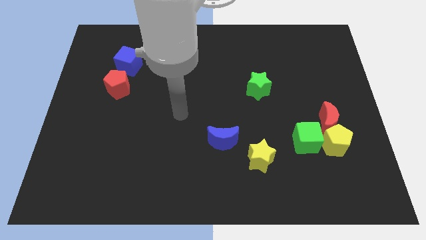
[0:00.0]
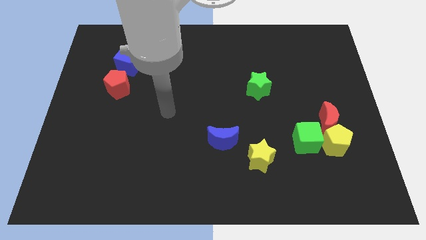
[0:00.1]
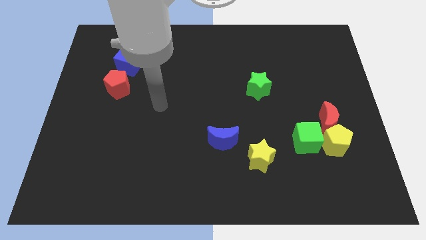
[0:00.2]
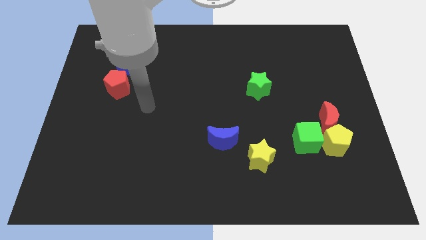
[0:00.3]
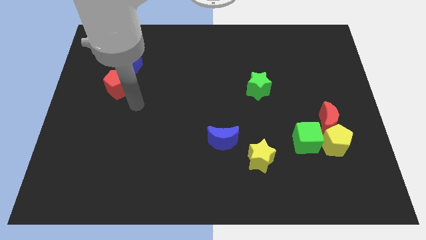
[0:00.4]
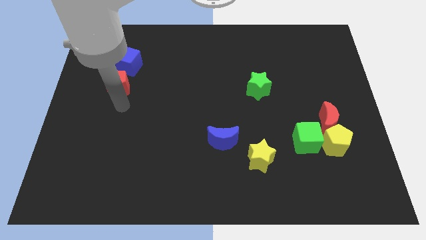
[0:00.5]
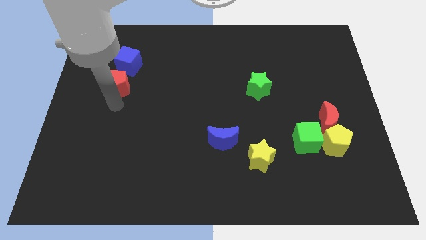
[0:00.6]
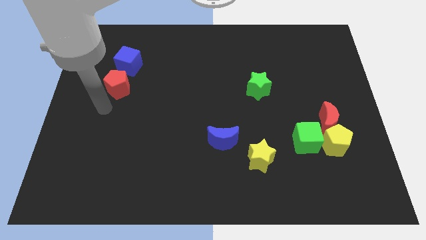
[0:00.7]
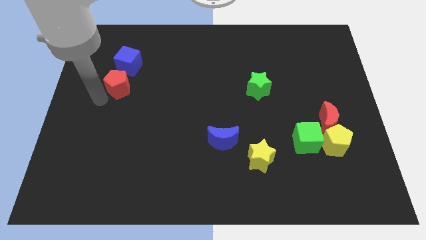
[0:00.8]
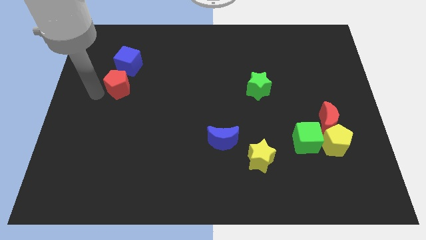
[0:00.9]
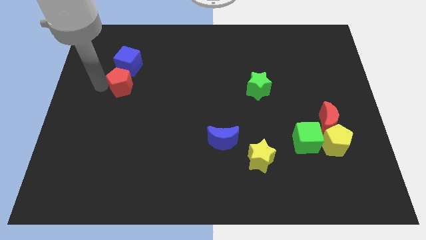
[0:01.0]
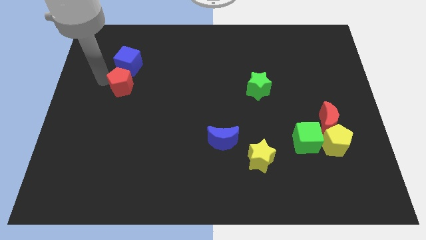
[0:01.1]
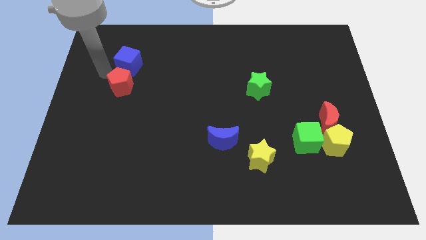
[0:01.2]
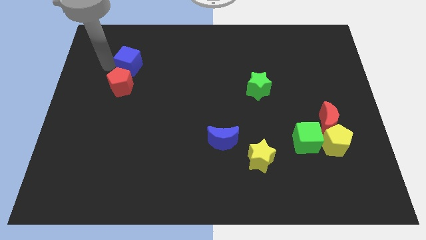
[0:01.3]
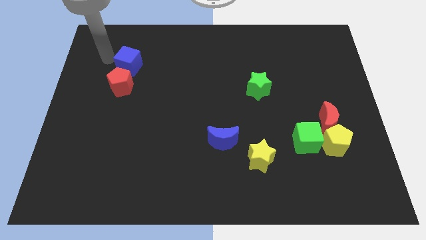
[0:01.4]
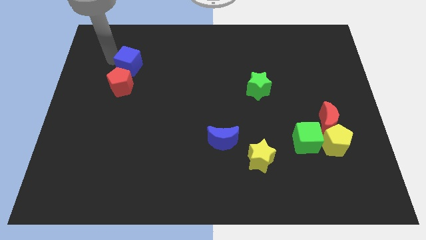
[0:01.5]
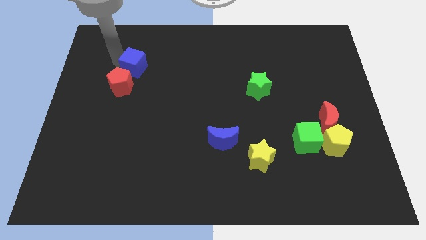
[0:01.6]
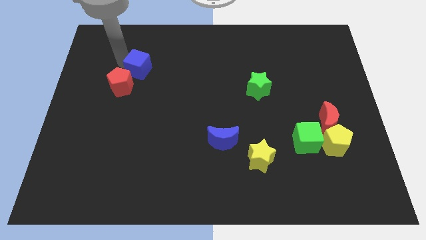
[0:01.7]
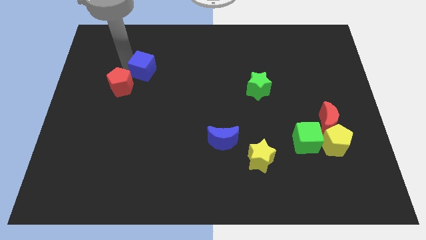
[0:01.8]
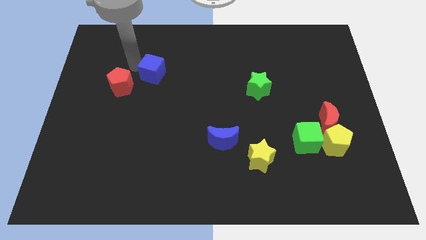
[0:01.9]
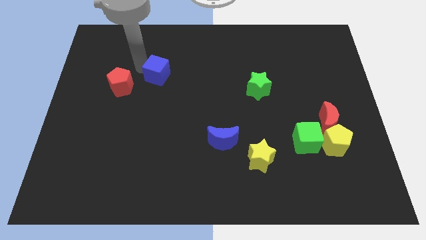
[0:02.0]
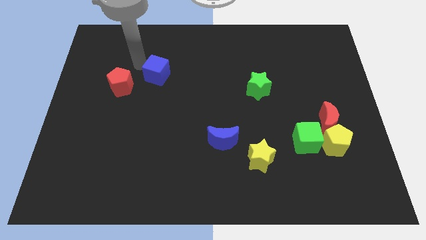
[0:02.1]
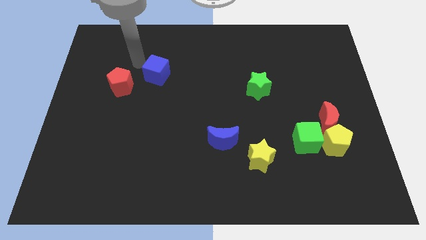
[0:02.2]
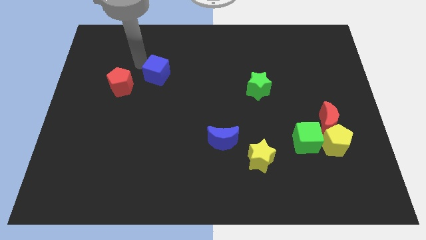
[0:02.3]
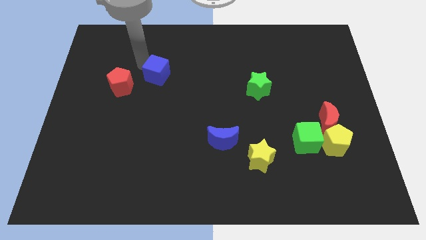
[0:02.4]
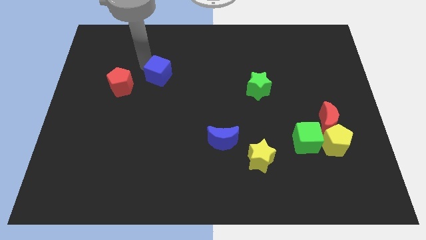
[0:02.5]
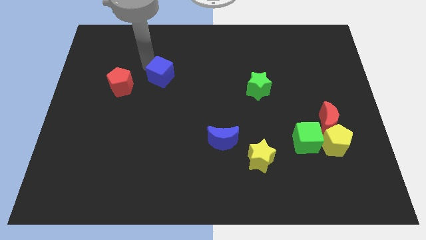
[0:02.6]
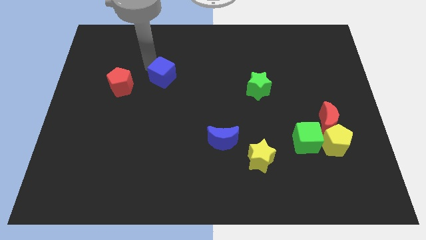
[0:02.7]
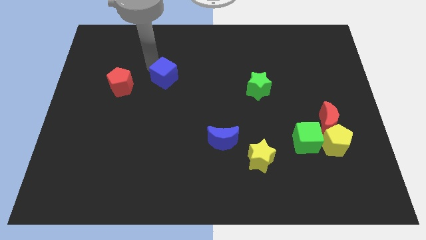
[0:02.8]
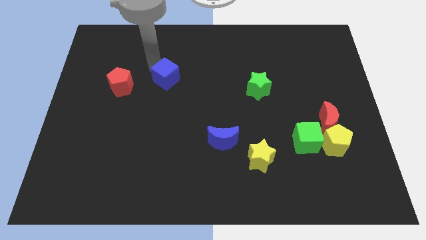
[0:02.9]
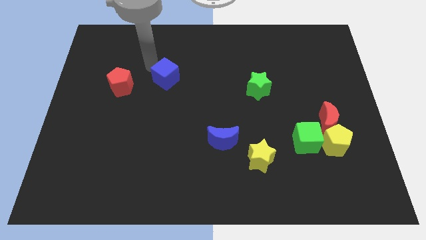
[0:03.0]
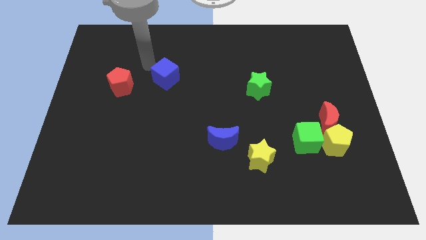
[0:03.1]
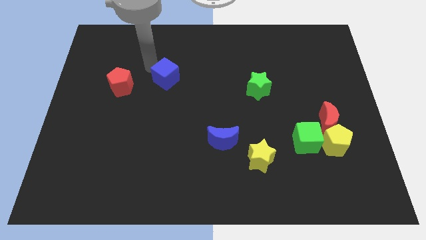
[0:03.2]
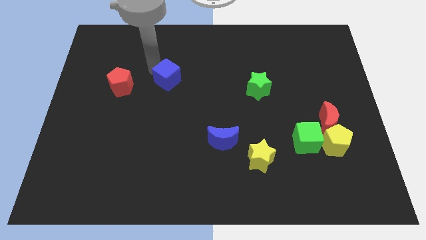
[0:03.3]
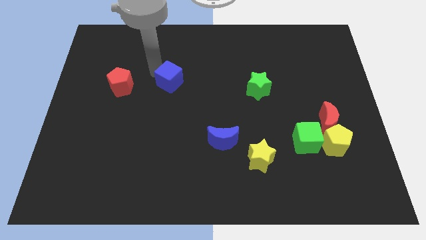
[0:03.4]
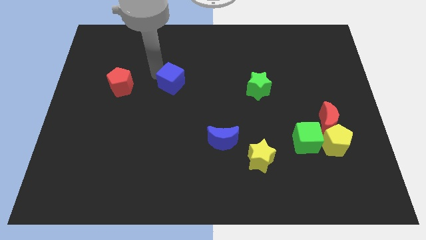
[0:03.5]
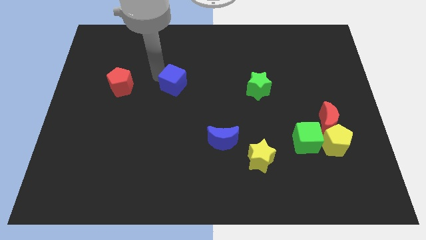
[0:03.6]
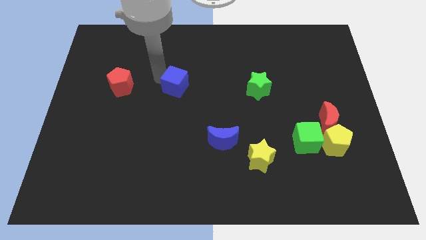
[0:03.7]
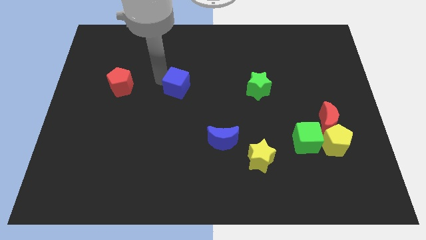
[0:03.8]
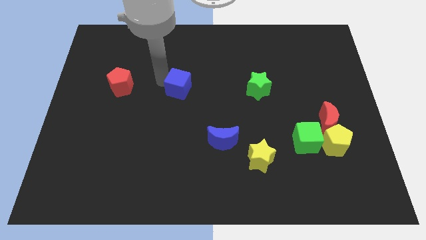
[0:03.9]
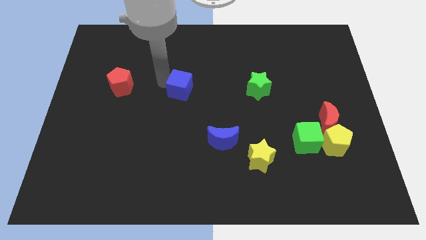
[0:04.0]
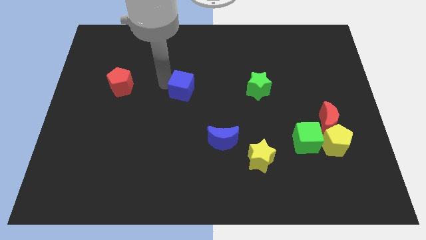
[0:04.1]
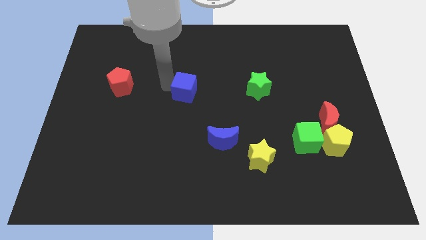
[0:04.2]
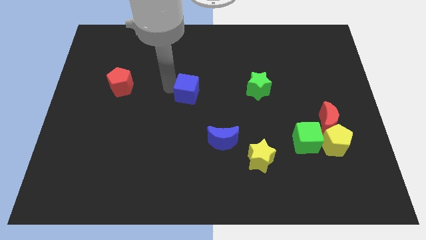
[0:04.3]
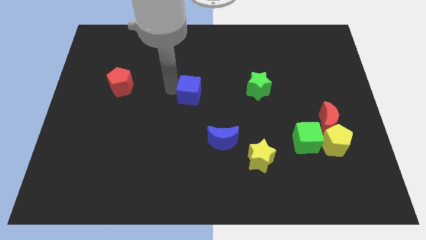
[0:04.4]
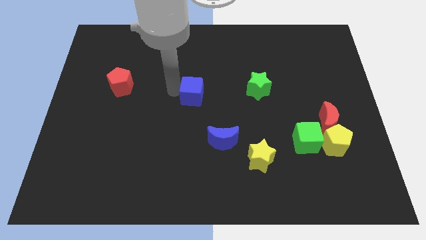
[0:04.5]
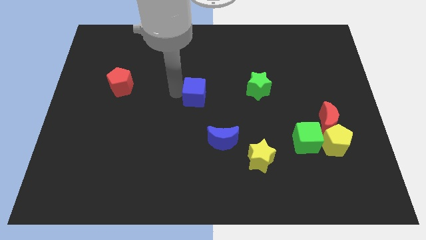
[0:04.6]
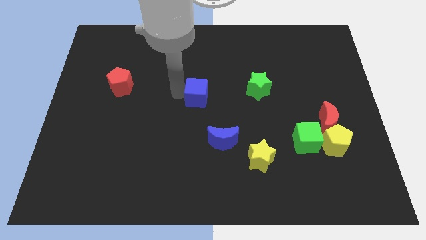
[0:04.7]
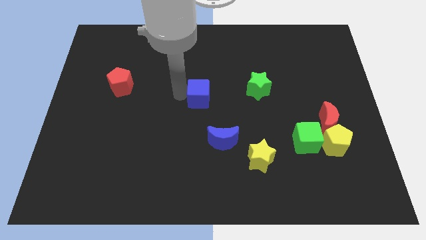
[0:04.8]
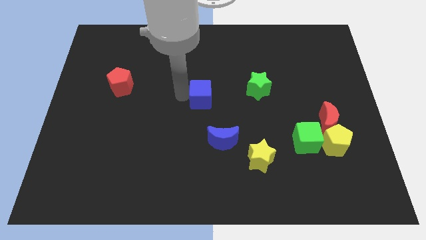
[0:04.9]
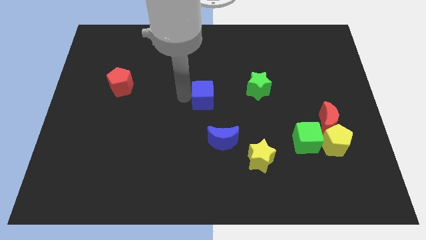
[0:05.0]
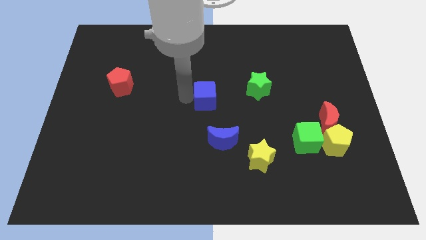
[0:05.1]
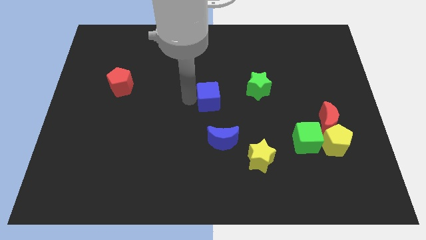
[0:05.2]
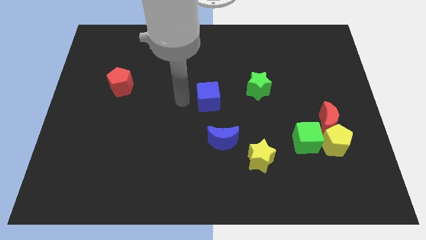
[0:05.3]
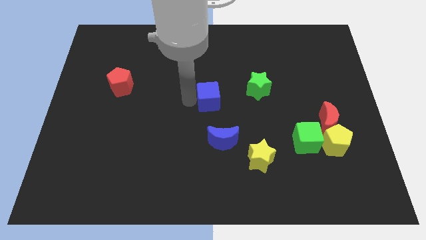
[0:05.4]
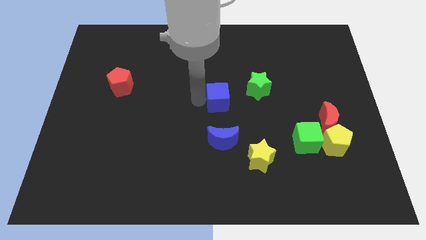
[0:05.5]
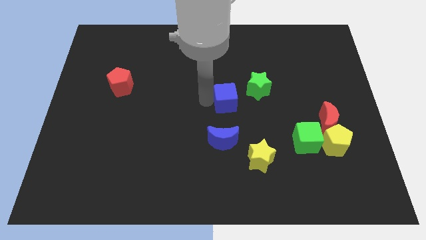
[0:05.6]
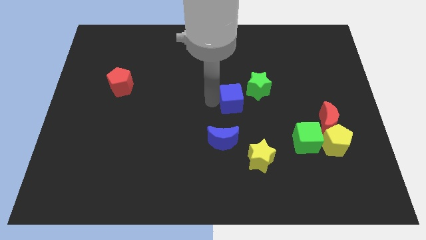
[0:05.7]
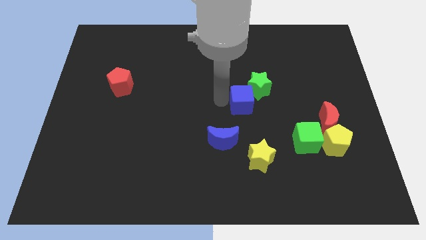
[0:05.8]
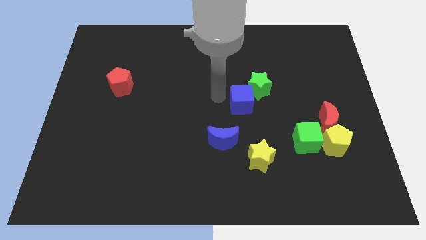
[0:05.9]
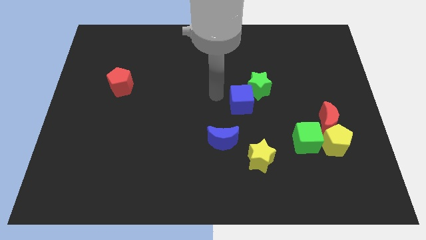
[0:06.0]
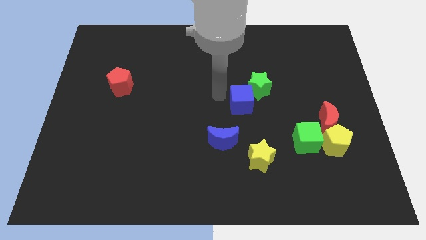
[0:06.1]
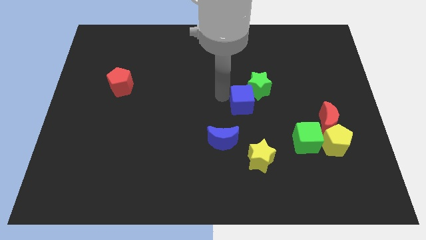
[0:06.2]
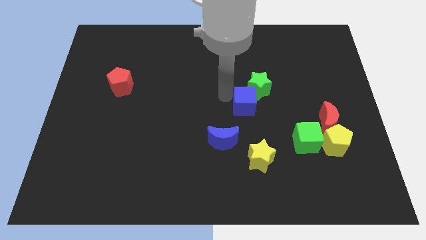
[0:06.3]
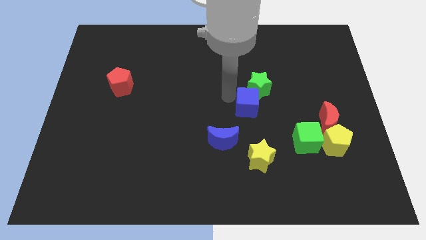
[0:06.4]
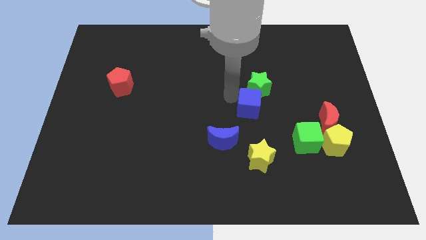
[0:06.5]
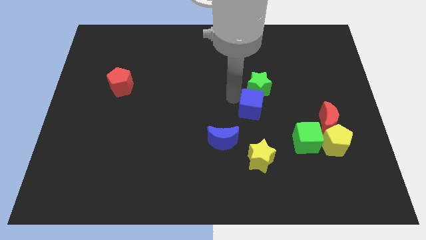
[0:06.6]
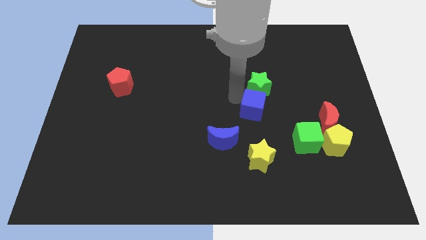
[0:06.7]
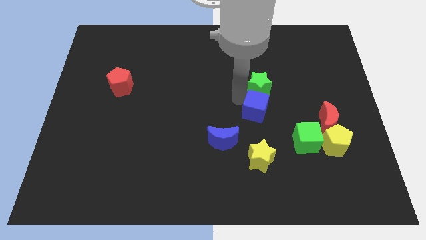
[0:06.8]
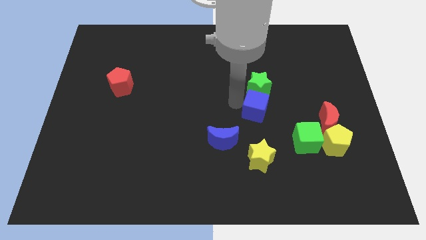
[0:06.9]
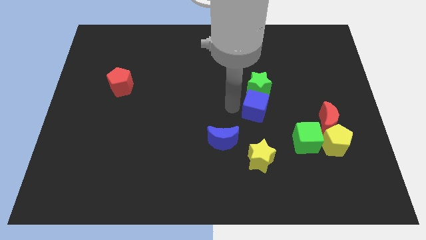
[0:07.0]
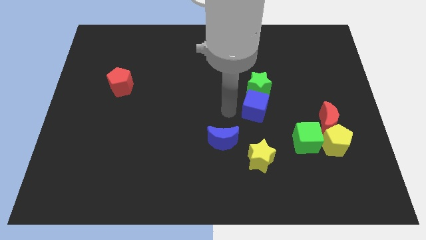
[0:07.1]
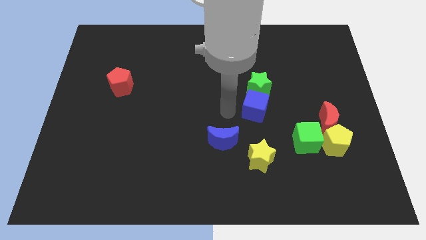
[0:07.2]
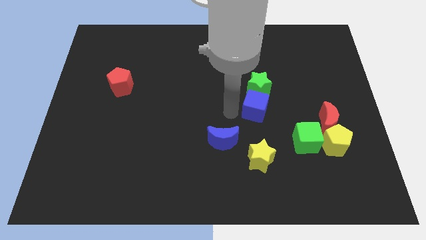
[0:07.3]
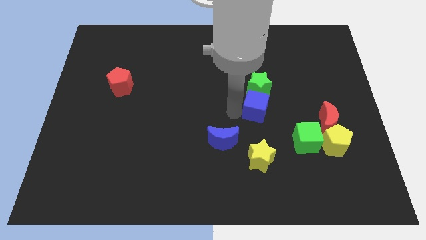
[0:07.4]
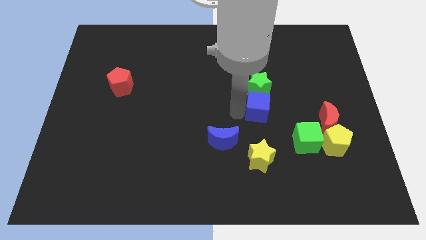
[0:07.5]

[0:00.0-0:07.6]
push the blue cube to the bottom right side of the green star
